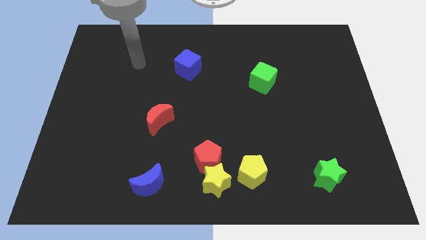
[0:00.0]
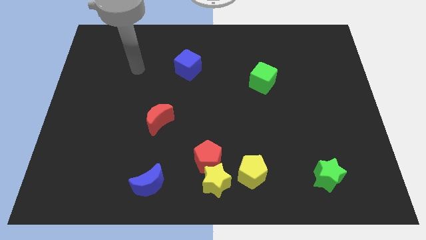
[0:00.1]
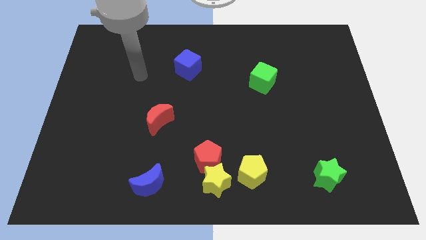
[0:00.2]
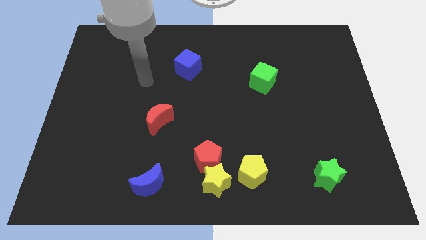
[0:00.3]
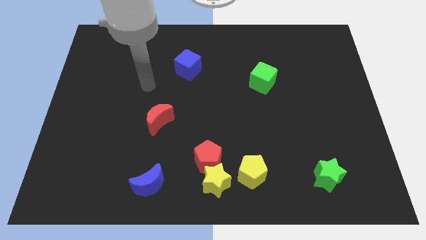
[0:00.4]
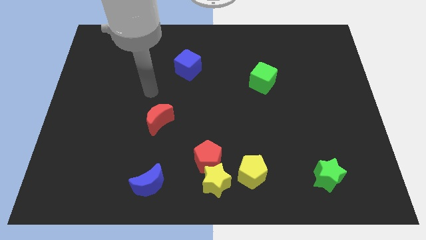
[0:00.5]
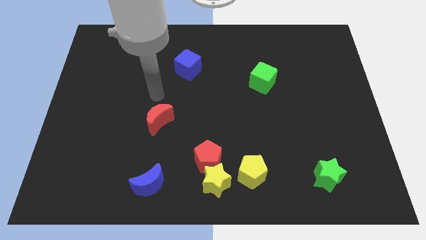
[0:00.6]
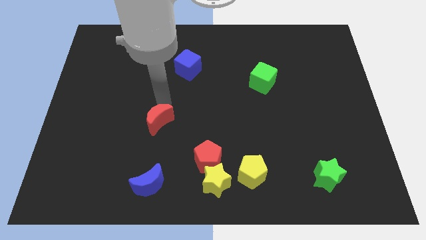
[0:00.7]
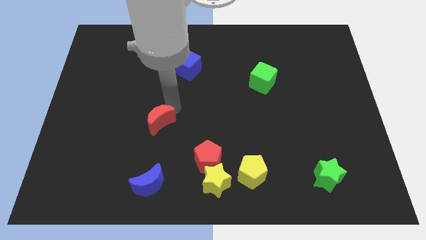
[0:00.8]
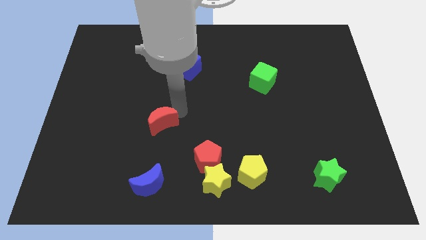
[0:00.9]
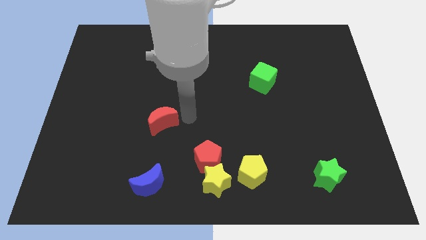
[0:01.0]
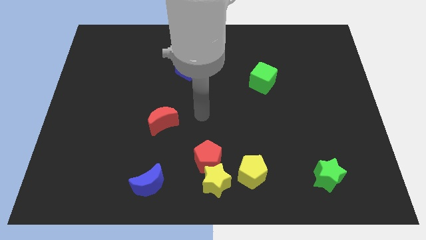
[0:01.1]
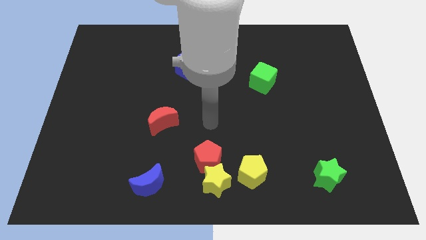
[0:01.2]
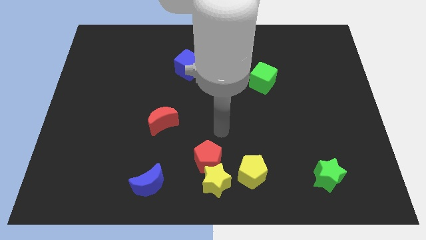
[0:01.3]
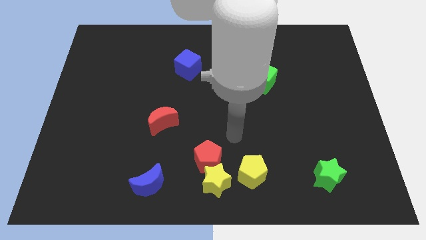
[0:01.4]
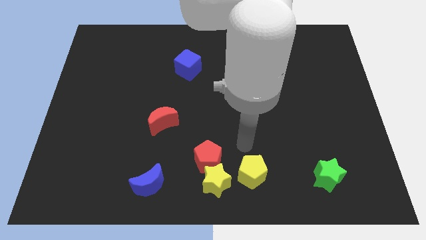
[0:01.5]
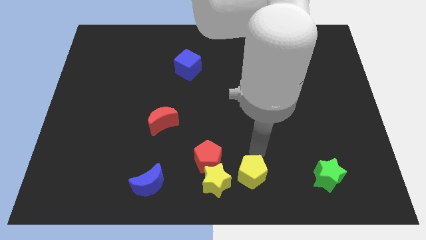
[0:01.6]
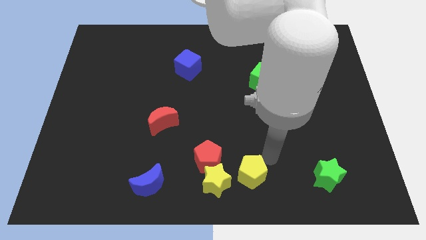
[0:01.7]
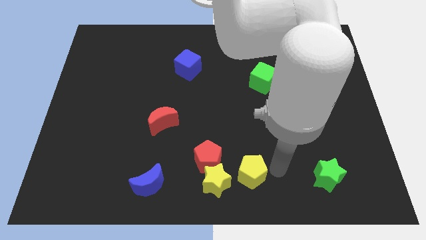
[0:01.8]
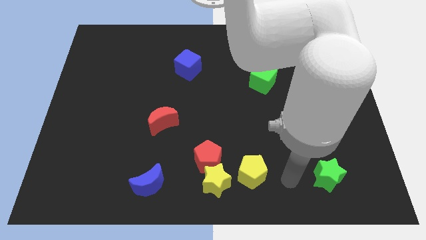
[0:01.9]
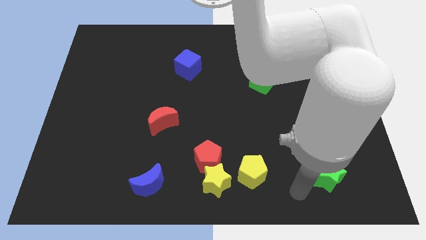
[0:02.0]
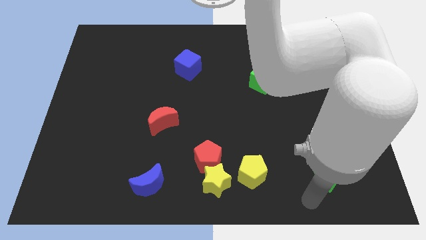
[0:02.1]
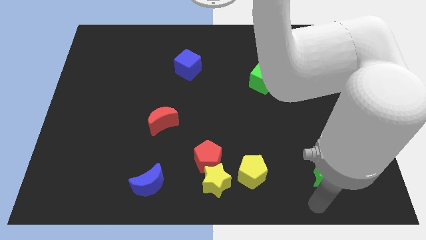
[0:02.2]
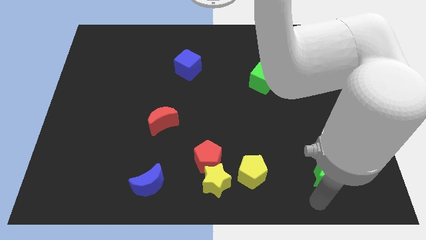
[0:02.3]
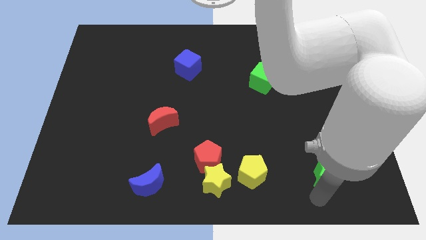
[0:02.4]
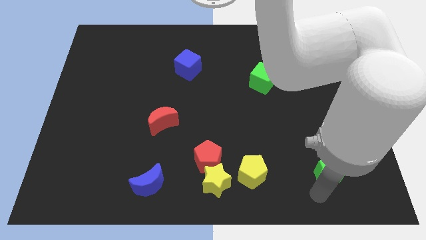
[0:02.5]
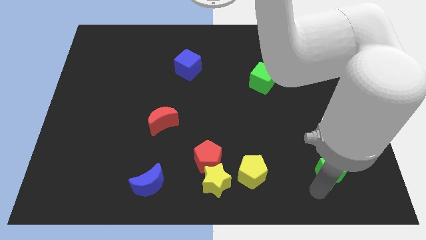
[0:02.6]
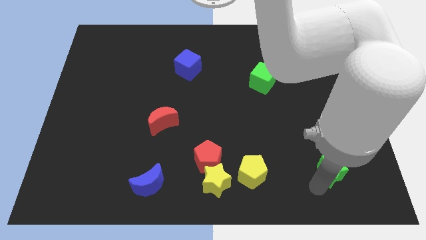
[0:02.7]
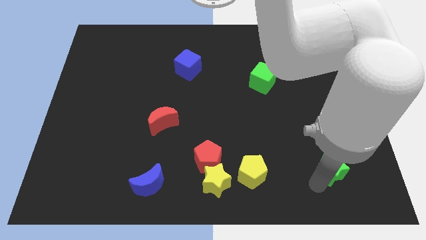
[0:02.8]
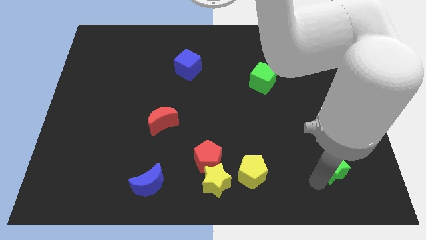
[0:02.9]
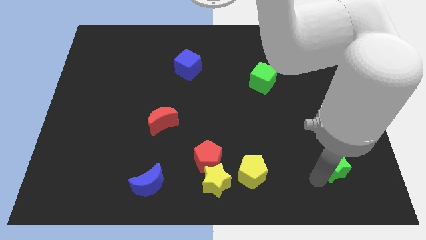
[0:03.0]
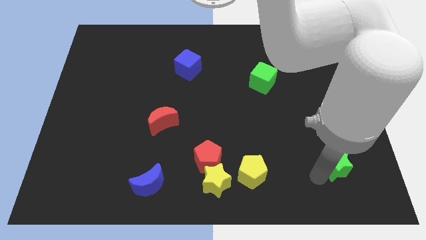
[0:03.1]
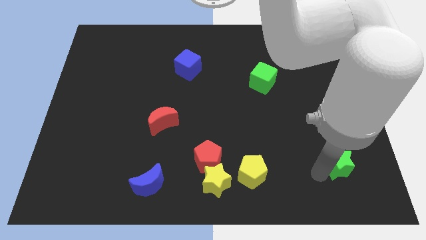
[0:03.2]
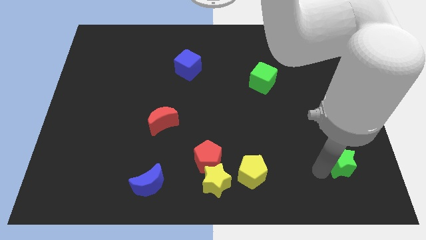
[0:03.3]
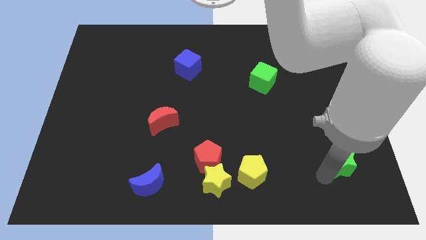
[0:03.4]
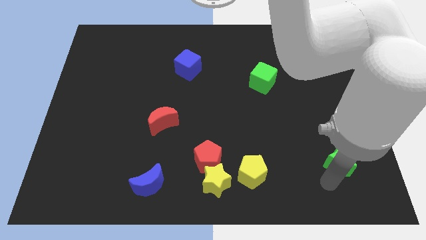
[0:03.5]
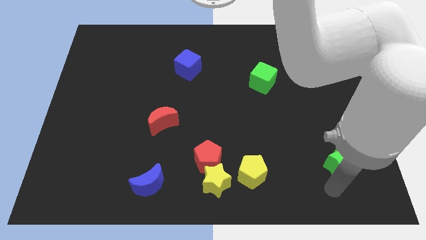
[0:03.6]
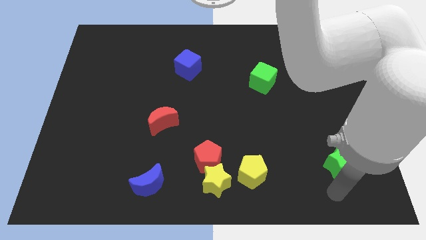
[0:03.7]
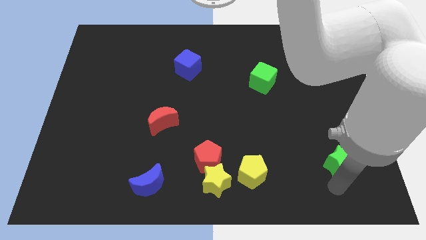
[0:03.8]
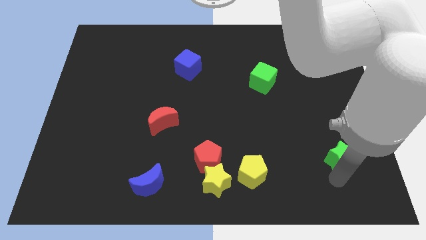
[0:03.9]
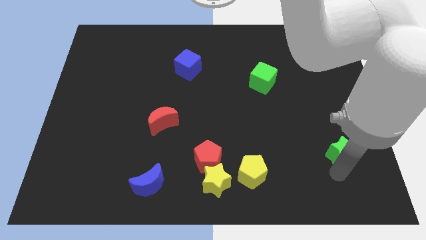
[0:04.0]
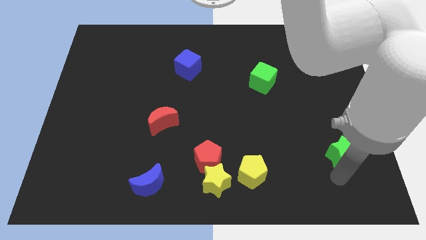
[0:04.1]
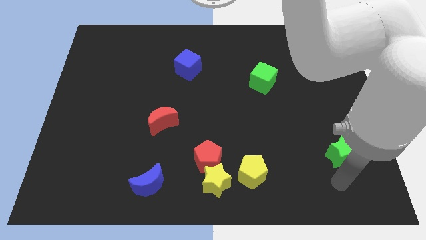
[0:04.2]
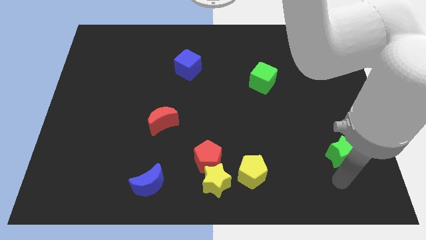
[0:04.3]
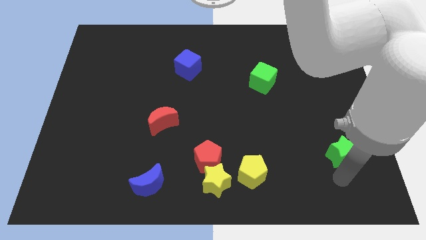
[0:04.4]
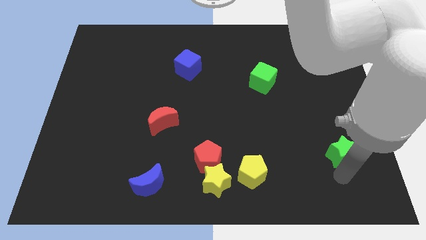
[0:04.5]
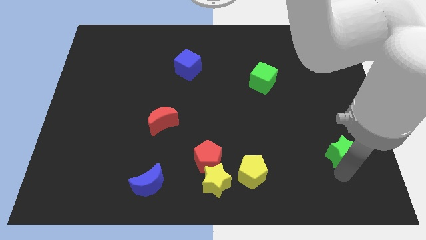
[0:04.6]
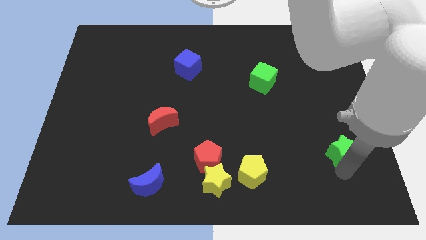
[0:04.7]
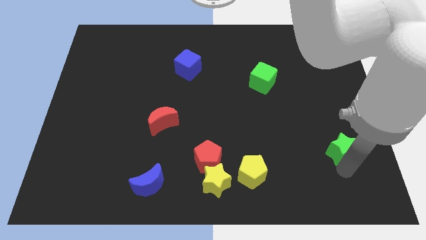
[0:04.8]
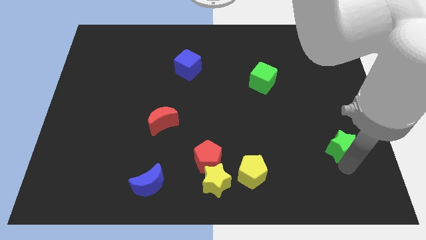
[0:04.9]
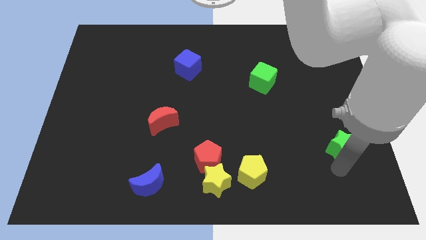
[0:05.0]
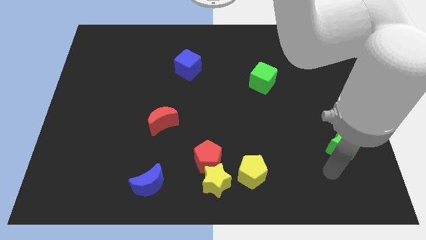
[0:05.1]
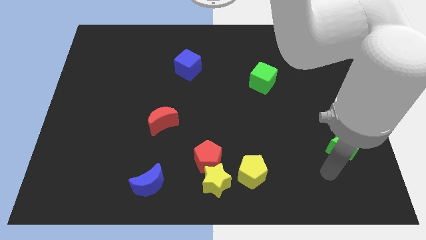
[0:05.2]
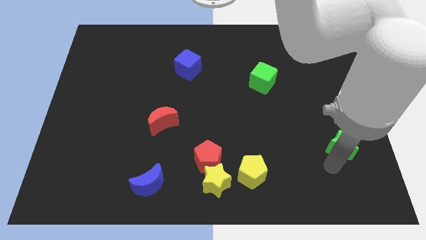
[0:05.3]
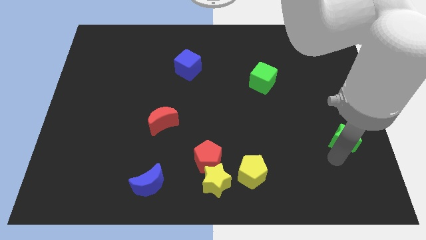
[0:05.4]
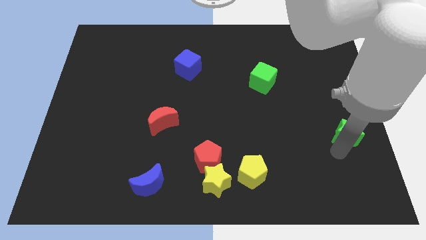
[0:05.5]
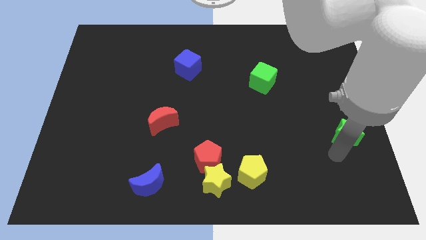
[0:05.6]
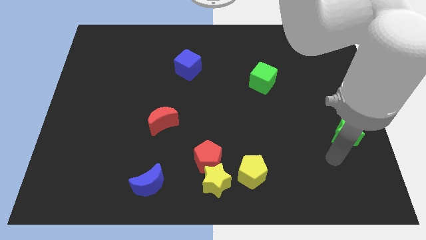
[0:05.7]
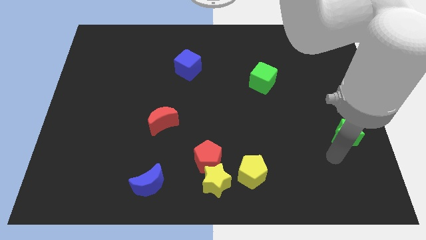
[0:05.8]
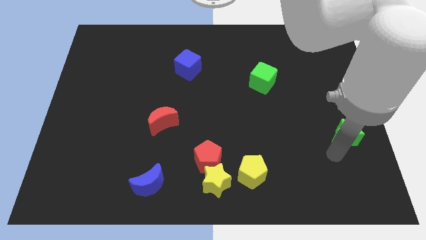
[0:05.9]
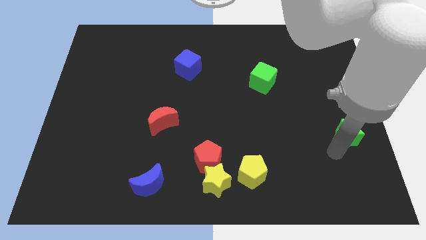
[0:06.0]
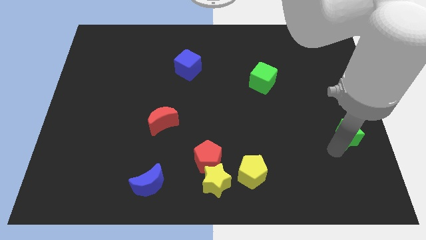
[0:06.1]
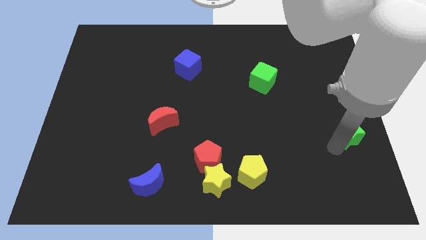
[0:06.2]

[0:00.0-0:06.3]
move the green star to the right side

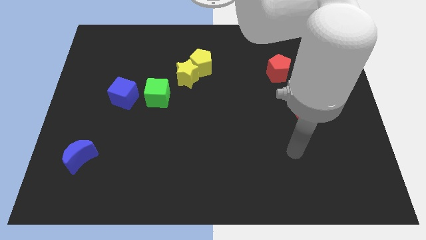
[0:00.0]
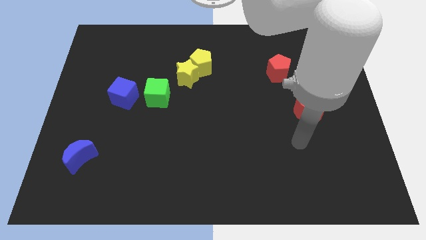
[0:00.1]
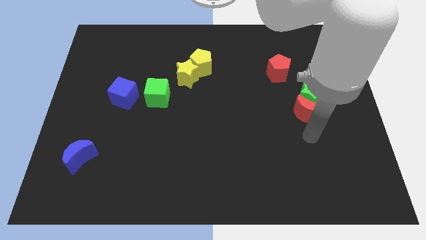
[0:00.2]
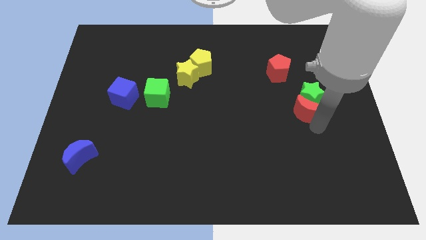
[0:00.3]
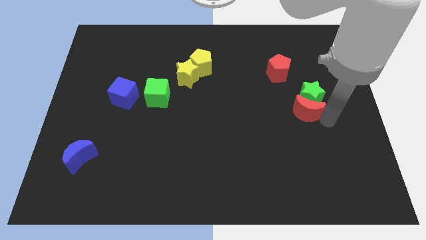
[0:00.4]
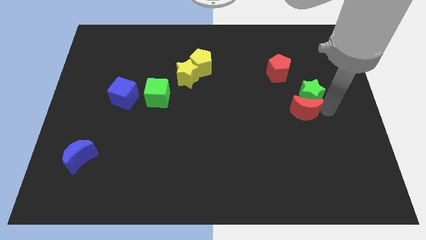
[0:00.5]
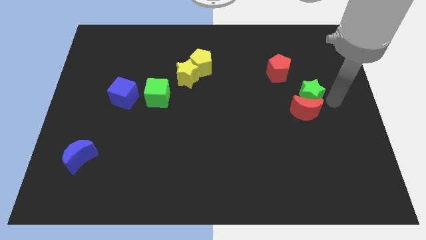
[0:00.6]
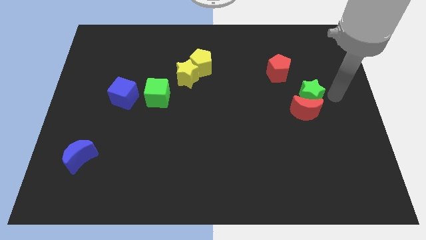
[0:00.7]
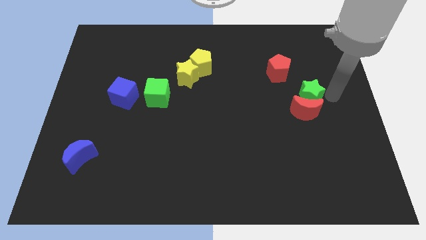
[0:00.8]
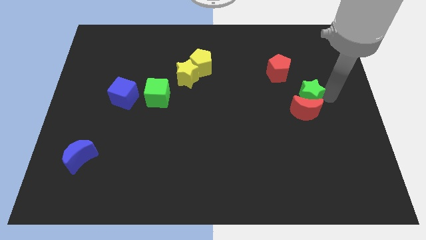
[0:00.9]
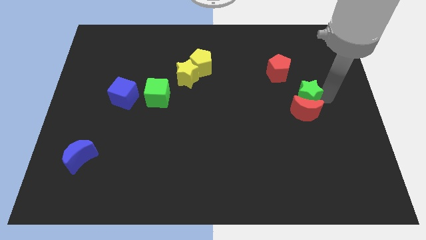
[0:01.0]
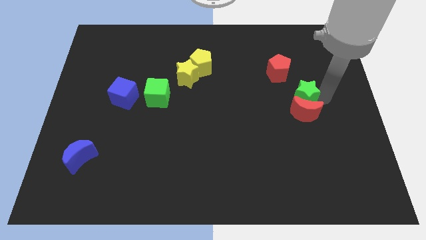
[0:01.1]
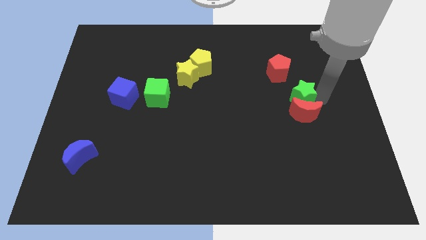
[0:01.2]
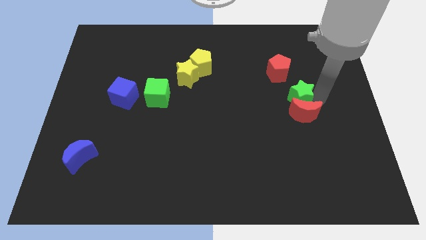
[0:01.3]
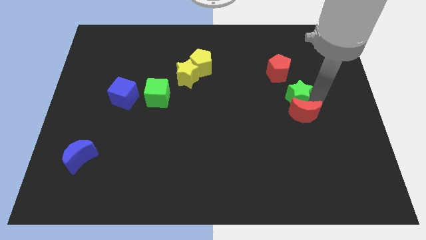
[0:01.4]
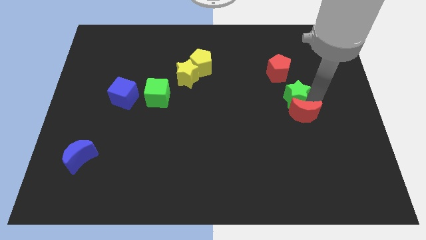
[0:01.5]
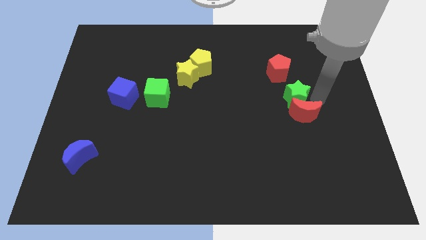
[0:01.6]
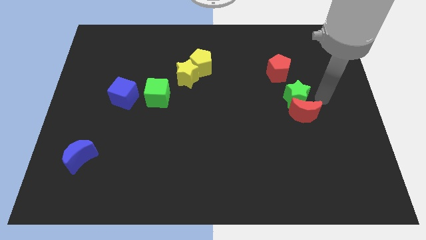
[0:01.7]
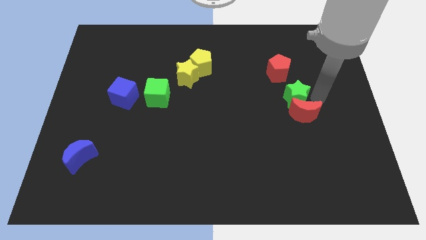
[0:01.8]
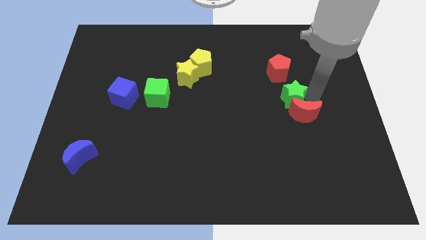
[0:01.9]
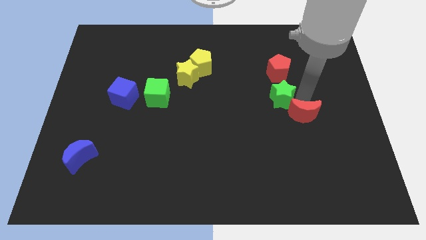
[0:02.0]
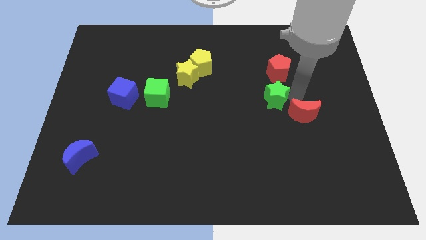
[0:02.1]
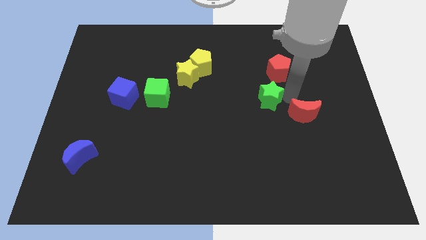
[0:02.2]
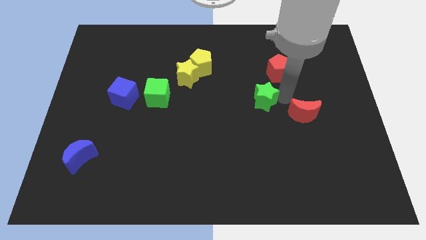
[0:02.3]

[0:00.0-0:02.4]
put the green star to the middle of the board
